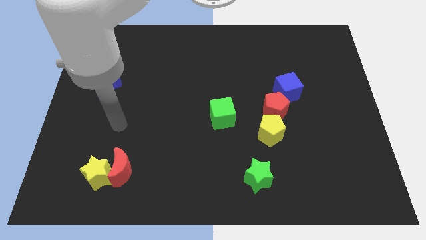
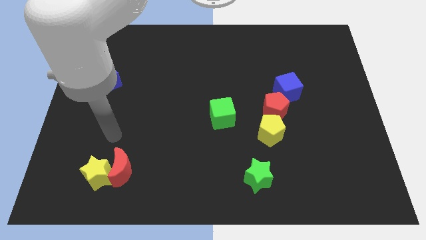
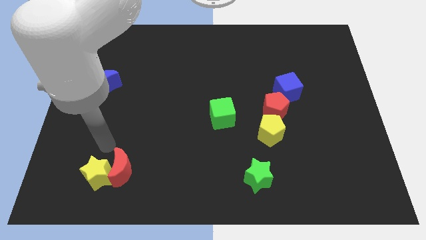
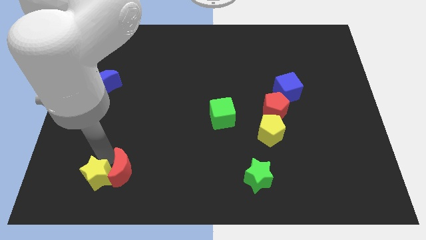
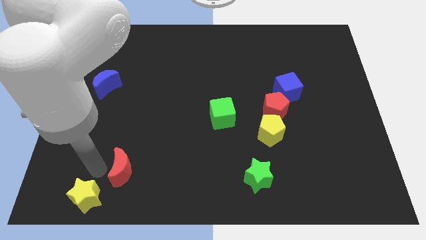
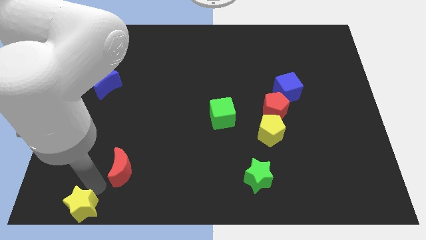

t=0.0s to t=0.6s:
pull the red moon apart from the yellow star

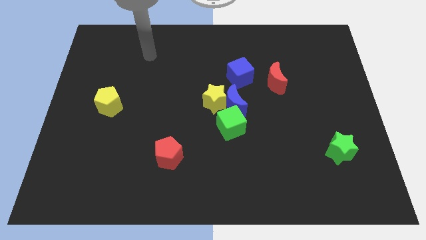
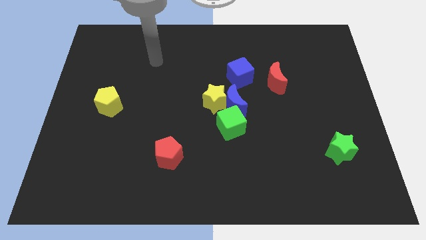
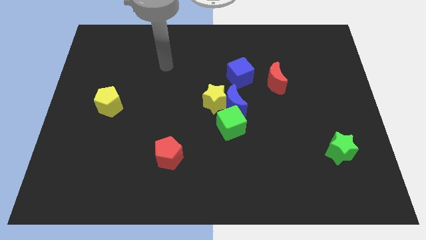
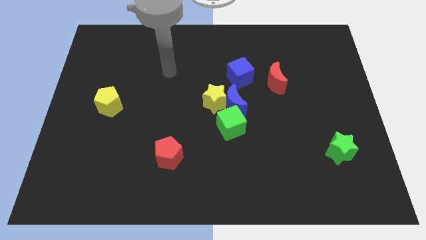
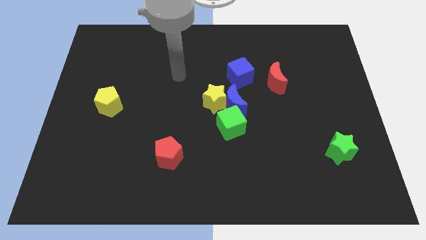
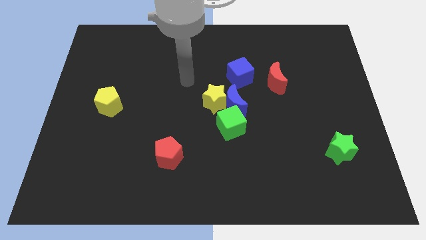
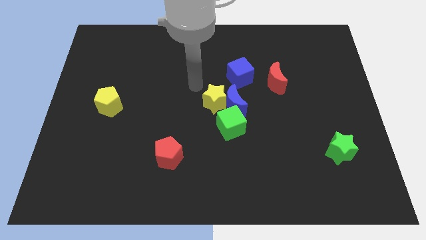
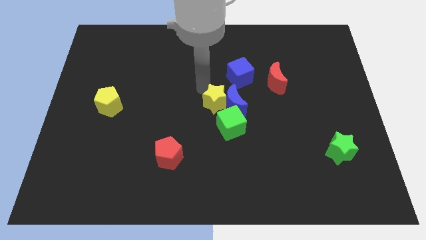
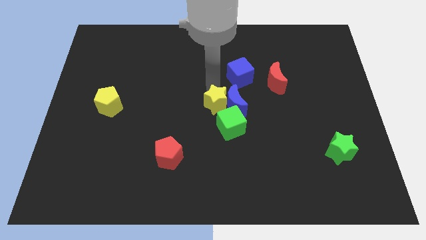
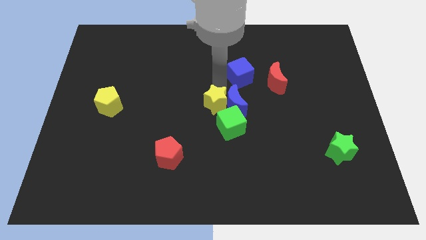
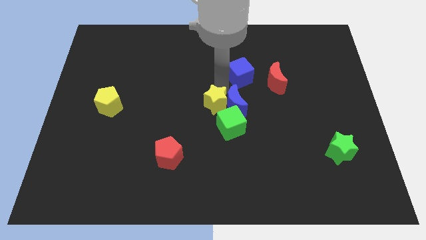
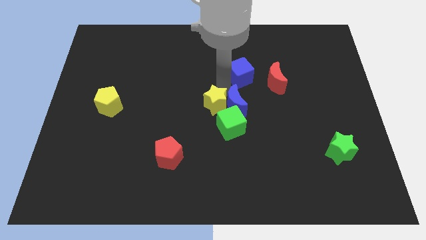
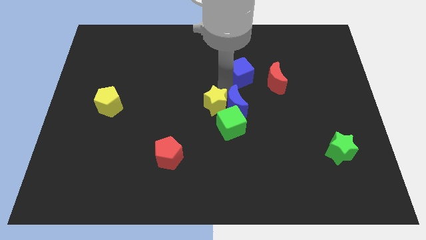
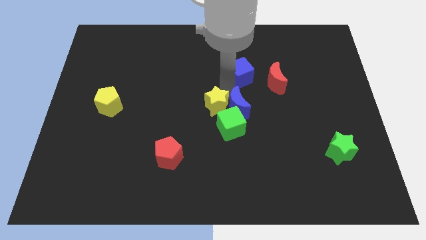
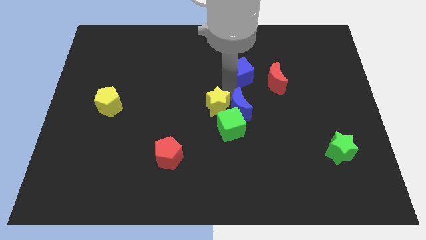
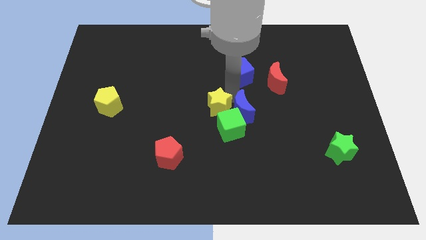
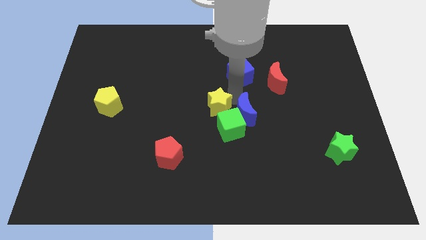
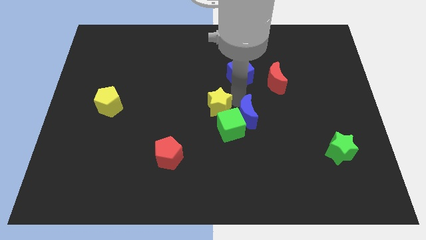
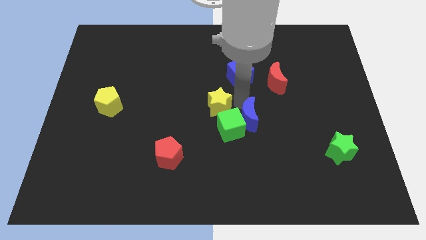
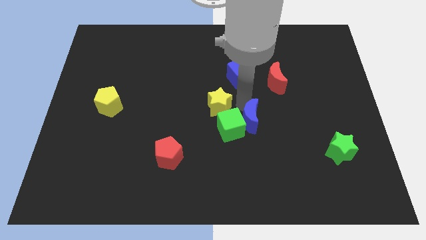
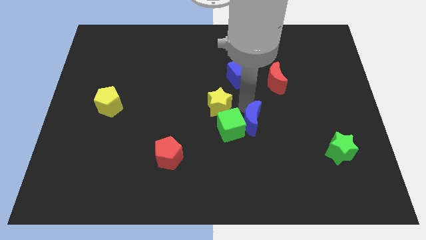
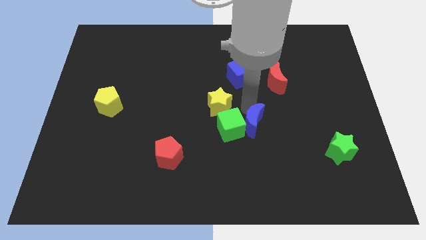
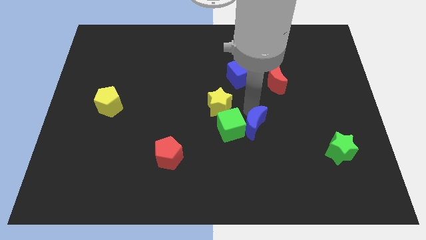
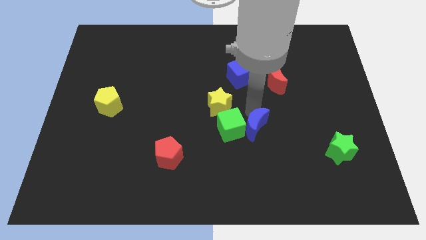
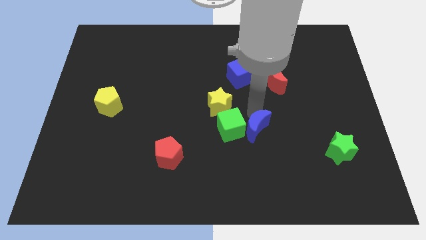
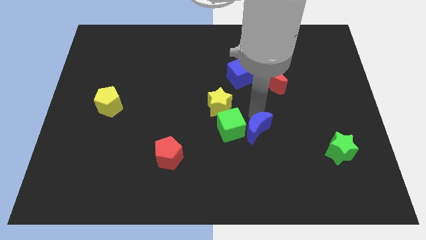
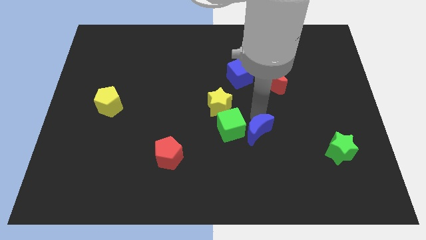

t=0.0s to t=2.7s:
pull the blue moon apart from the group

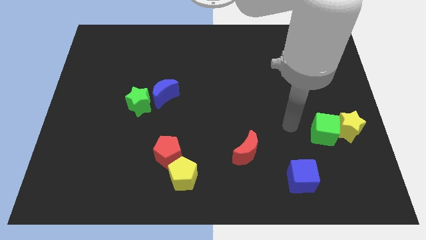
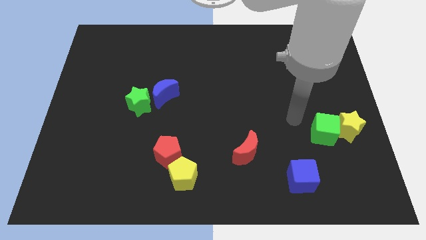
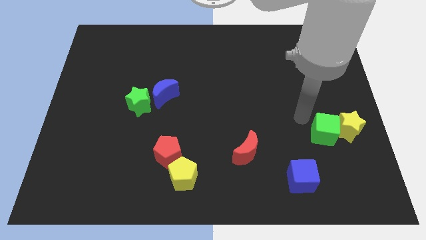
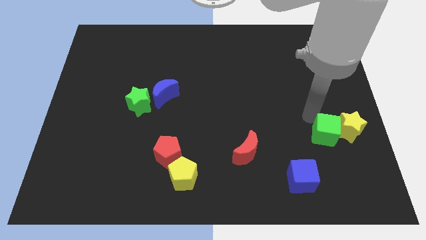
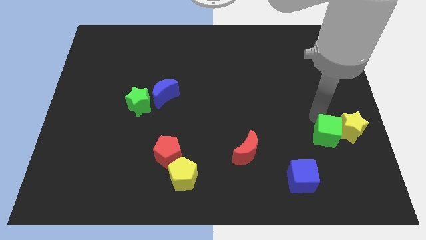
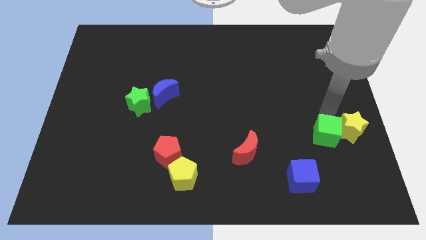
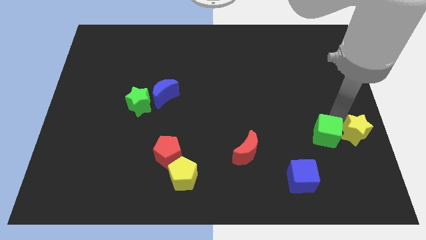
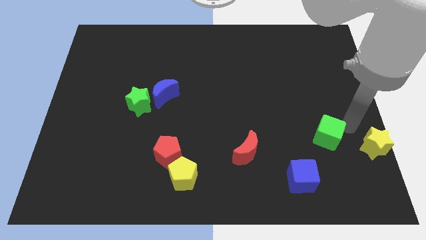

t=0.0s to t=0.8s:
separate the green cube from the yellow star

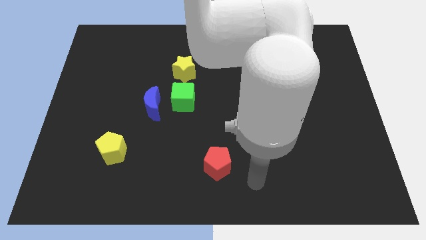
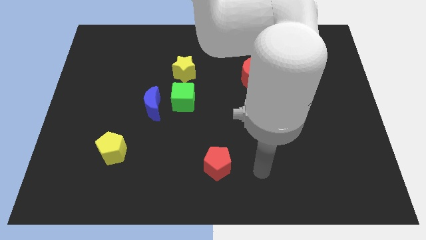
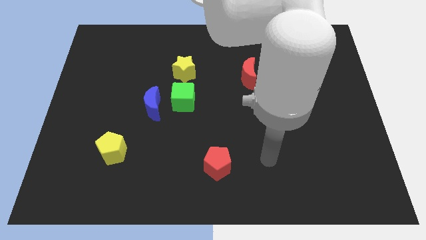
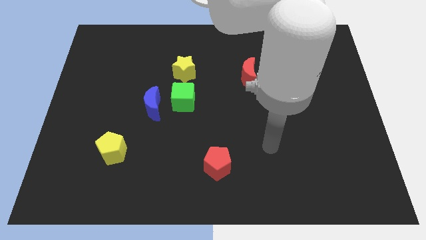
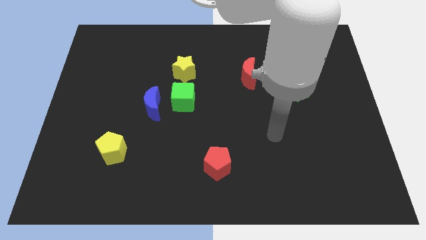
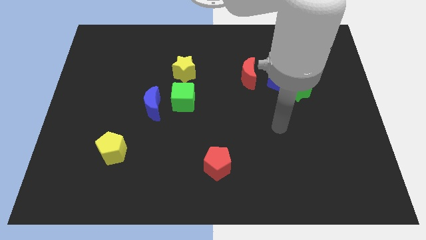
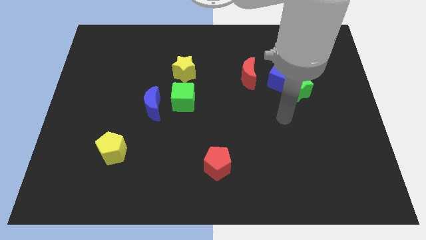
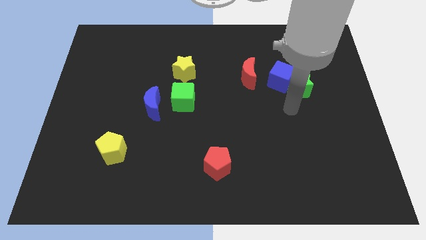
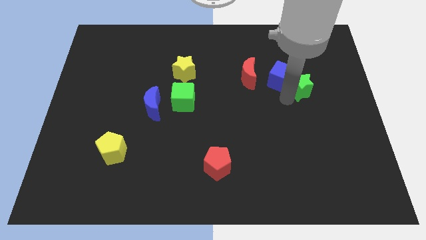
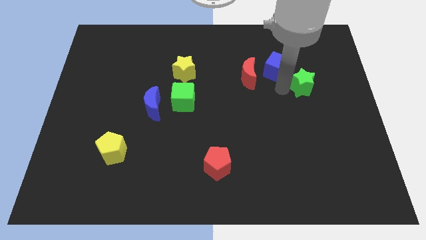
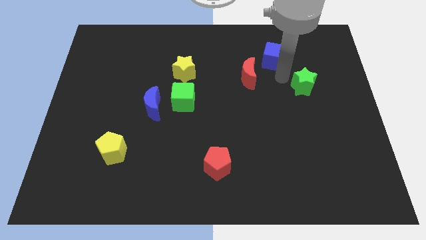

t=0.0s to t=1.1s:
separate the green star from the blue cube

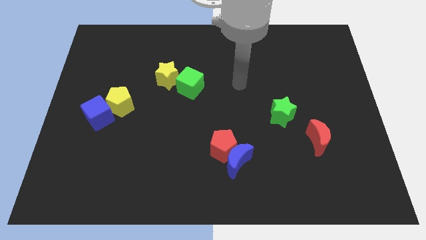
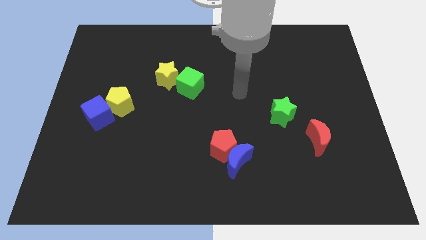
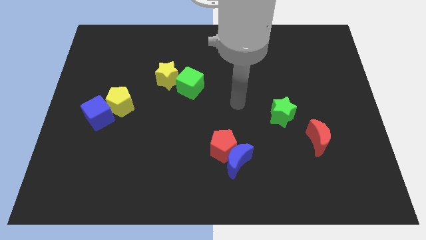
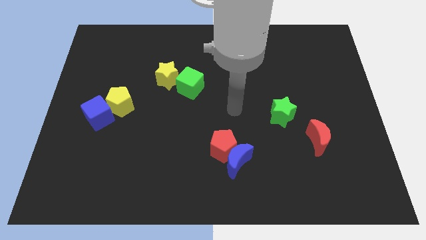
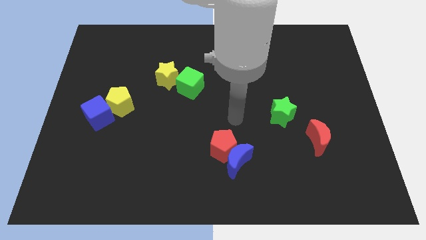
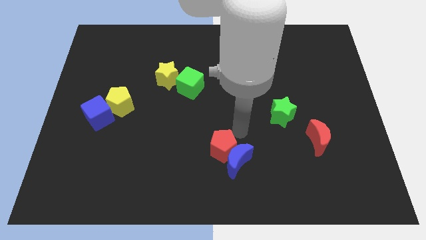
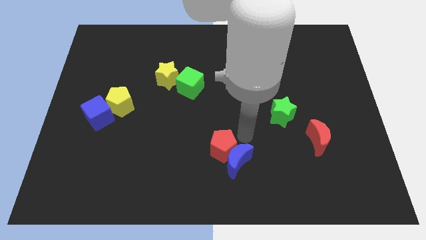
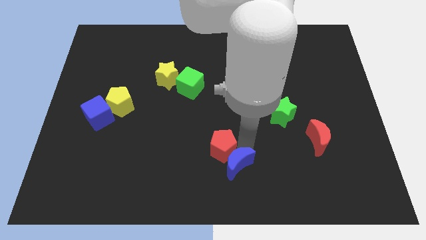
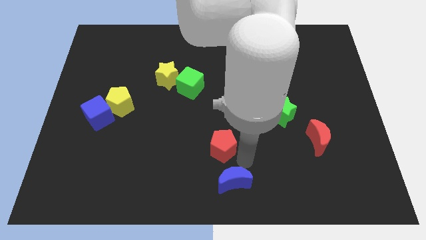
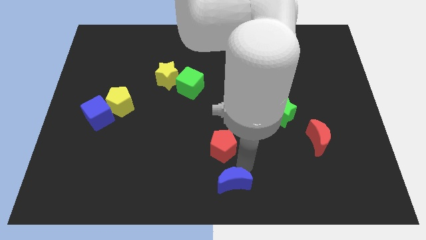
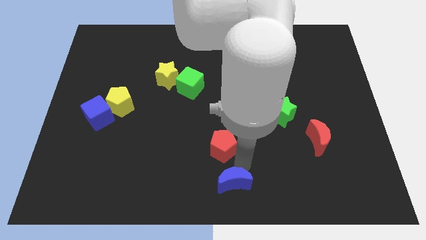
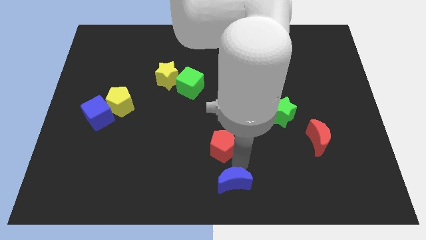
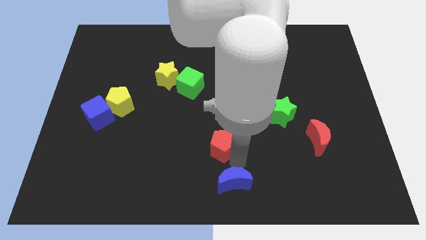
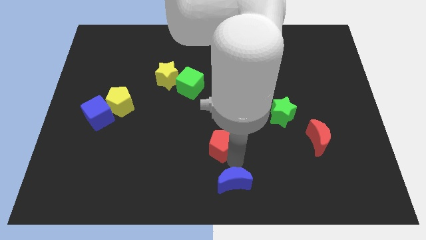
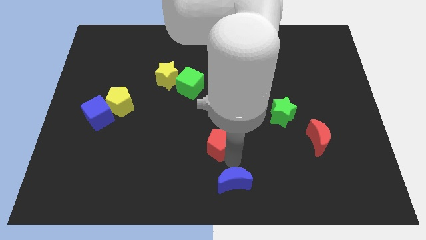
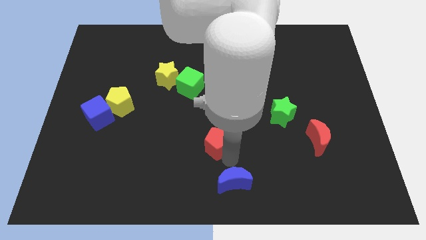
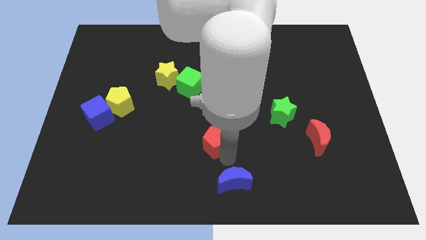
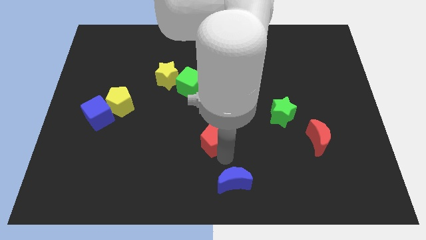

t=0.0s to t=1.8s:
move the red pentagon away from the blue moon

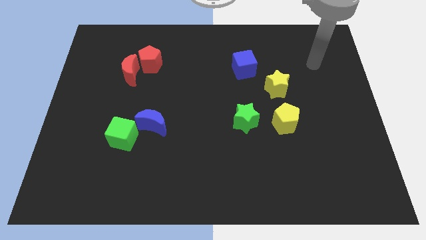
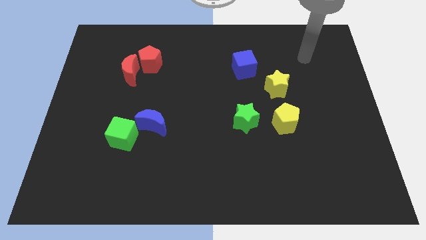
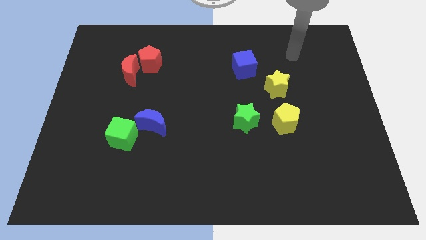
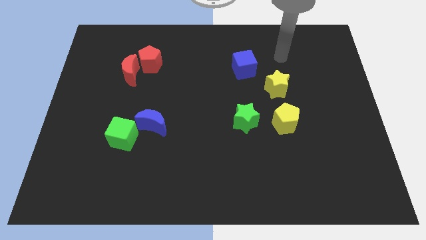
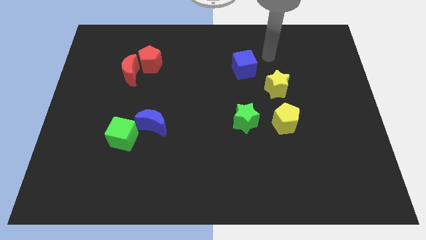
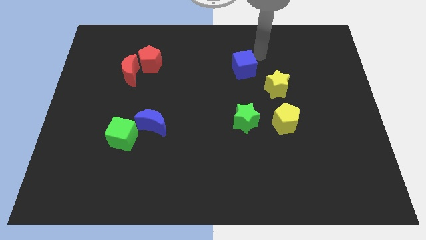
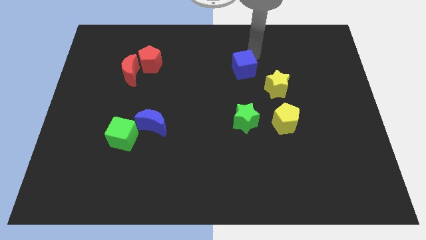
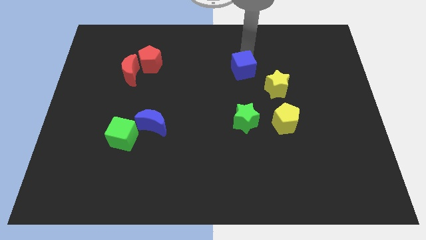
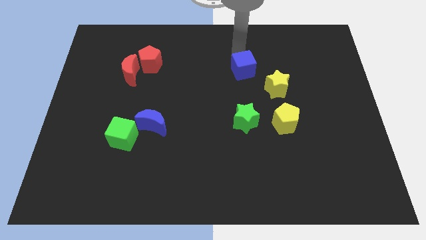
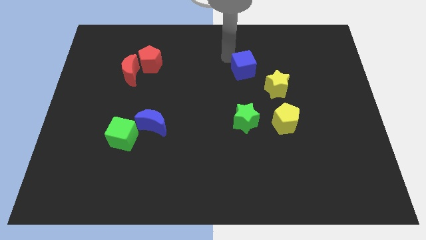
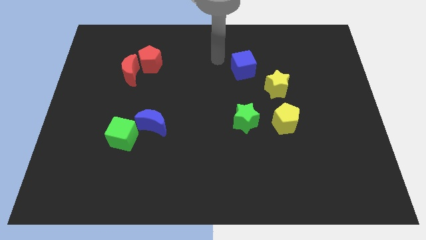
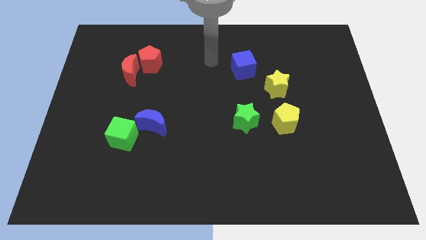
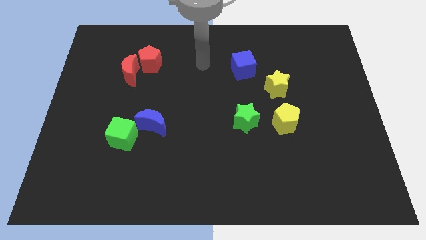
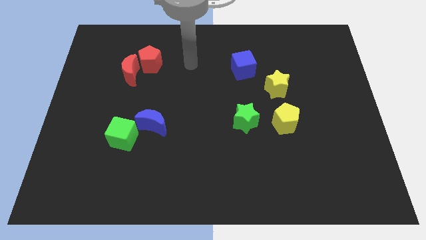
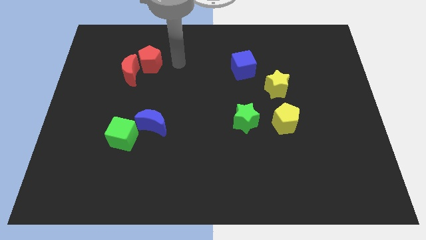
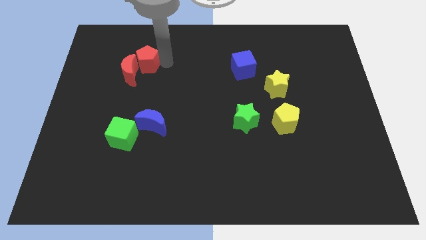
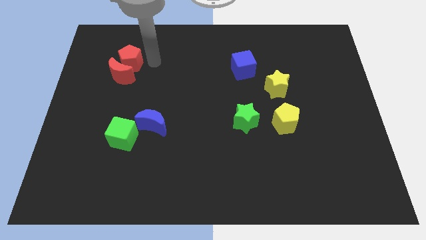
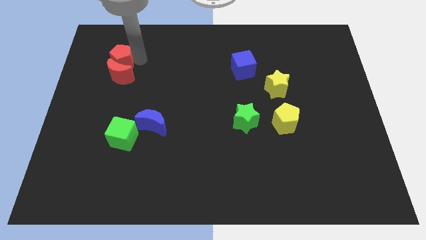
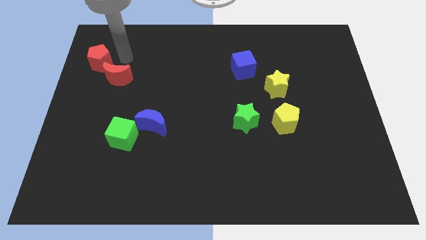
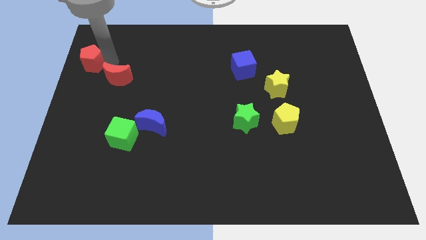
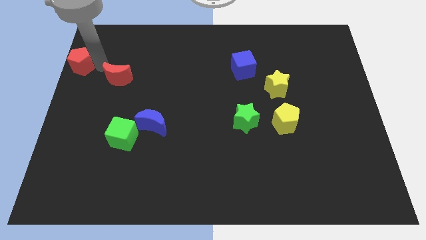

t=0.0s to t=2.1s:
separate the red moon from the red pentagon

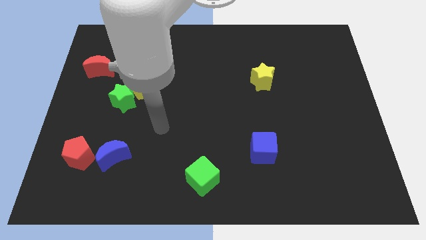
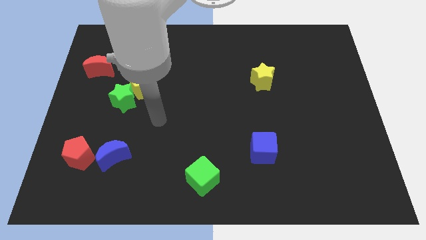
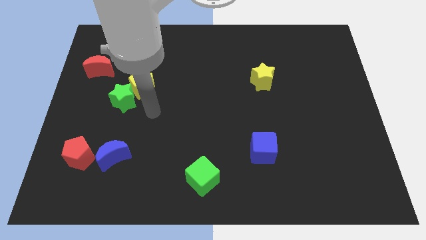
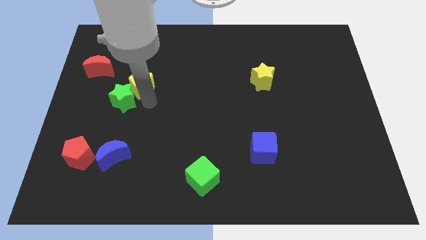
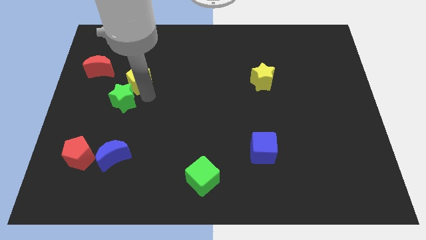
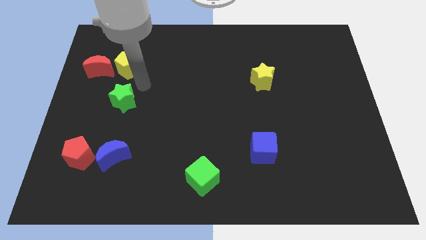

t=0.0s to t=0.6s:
separate the green star from the yellow pentagon
